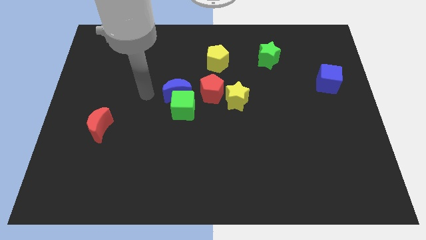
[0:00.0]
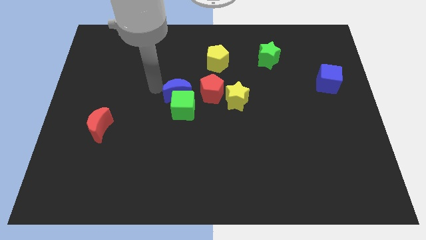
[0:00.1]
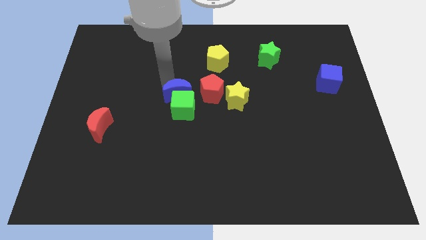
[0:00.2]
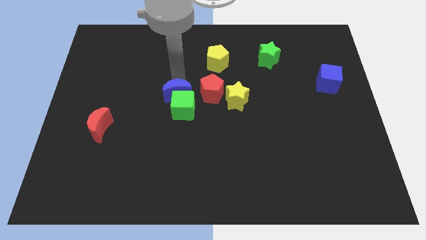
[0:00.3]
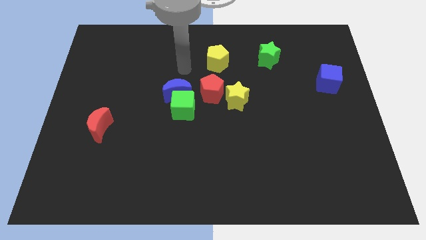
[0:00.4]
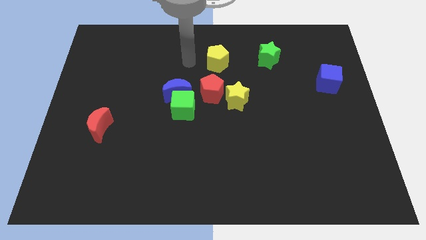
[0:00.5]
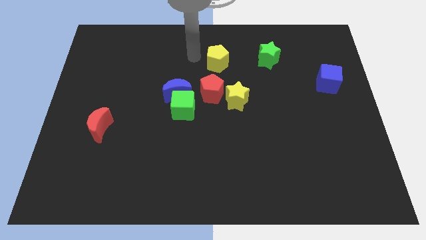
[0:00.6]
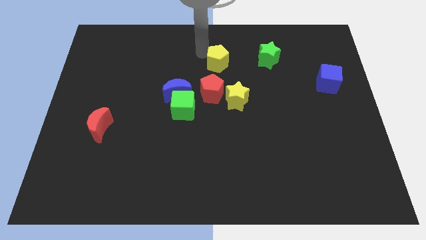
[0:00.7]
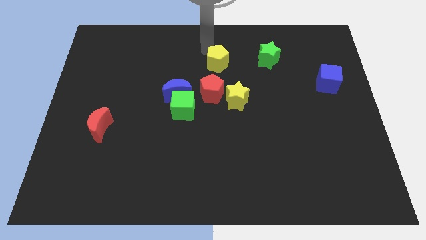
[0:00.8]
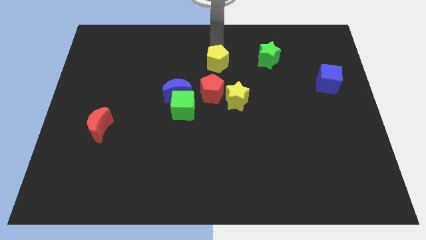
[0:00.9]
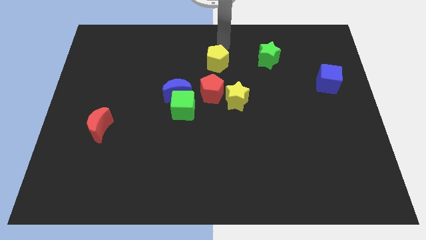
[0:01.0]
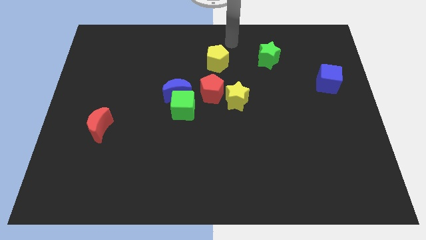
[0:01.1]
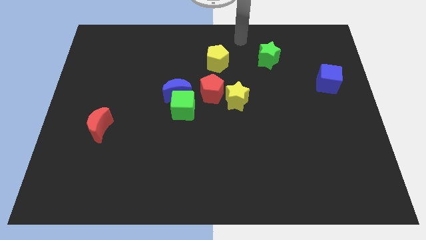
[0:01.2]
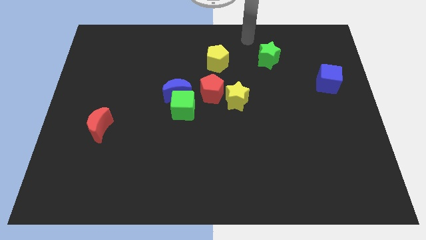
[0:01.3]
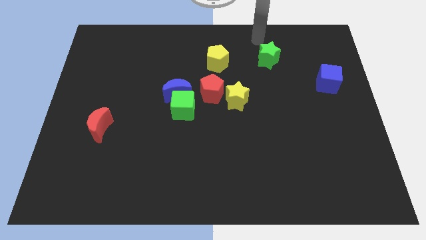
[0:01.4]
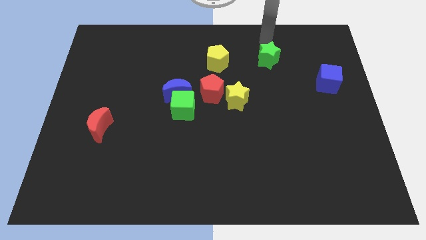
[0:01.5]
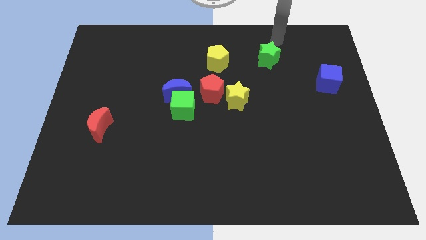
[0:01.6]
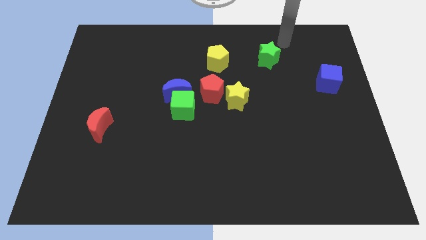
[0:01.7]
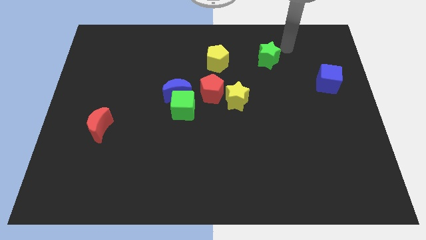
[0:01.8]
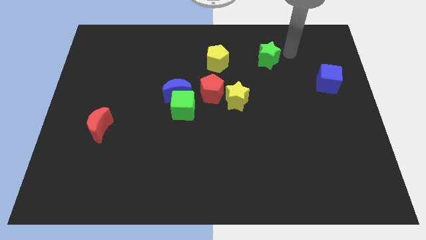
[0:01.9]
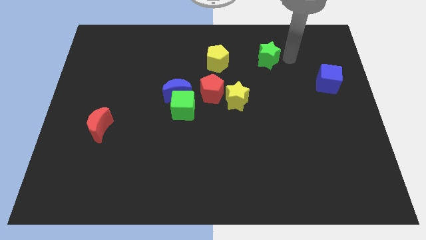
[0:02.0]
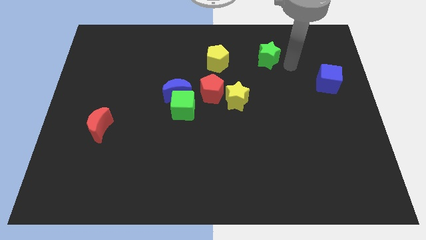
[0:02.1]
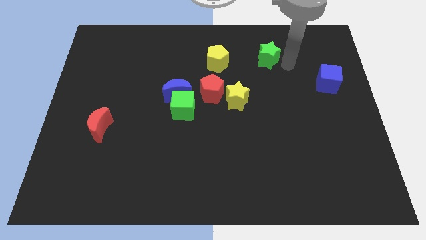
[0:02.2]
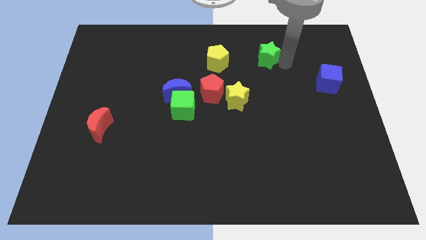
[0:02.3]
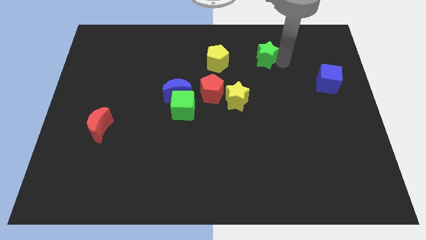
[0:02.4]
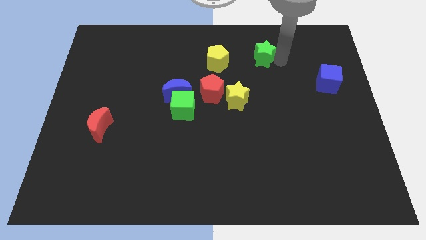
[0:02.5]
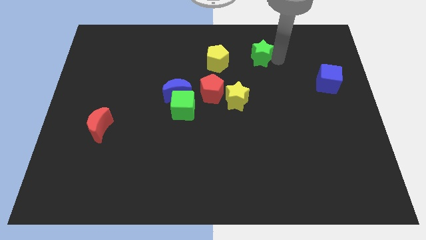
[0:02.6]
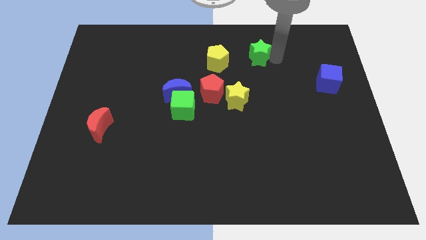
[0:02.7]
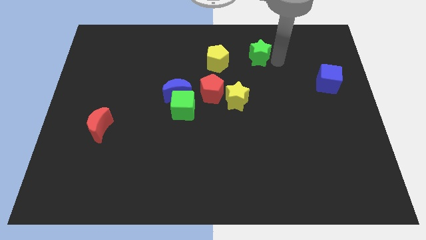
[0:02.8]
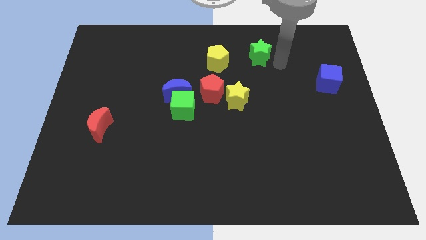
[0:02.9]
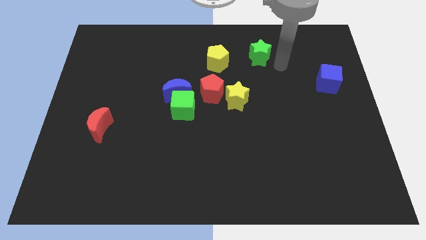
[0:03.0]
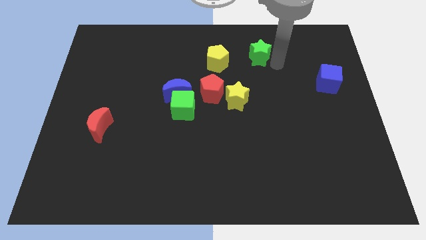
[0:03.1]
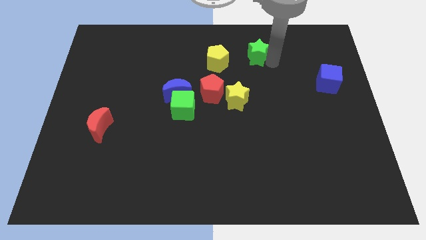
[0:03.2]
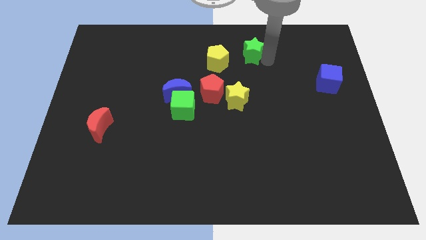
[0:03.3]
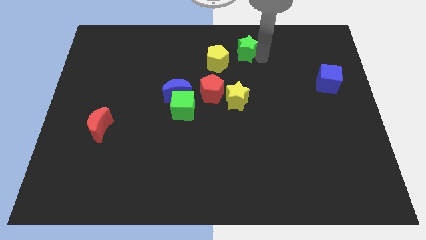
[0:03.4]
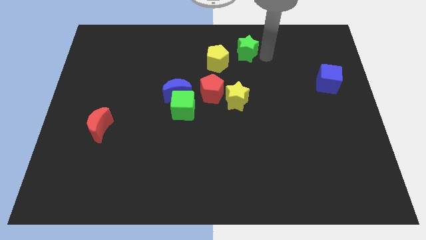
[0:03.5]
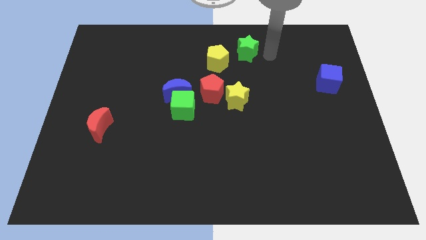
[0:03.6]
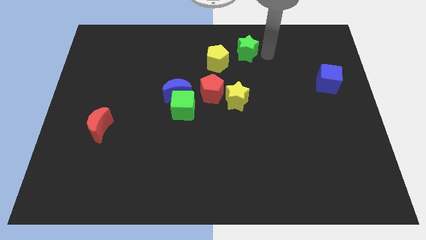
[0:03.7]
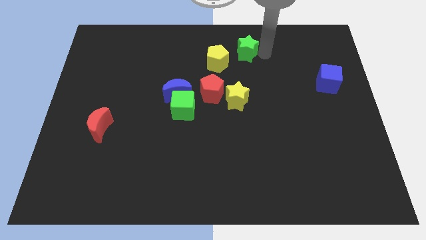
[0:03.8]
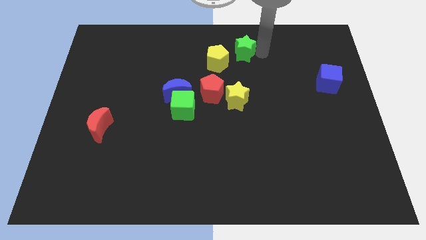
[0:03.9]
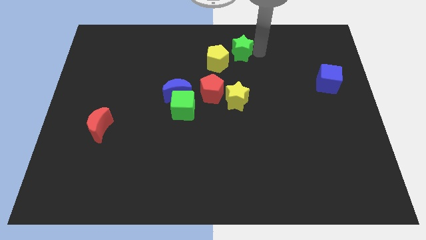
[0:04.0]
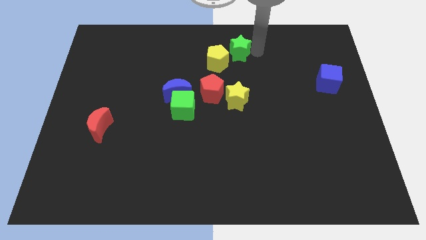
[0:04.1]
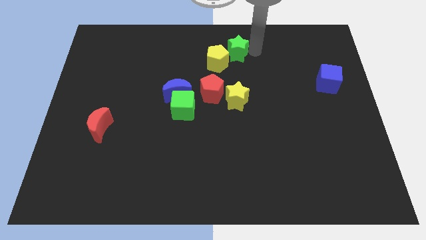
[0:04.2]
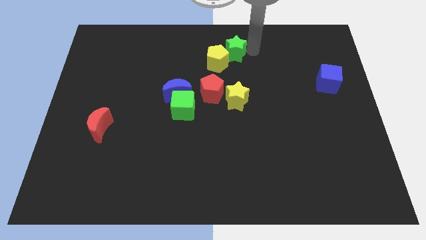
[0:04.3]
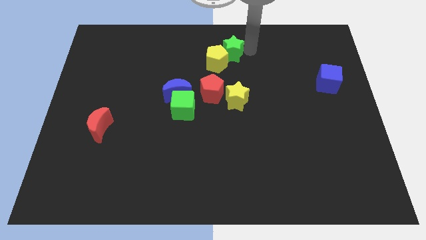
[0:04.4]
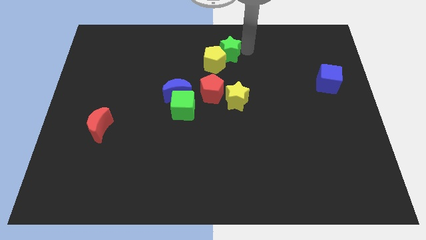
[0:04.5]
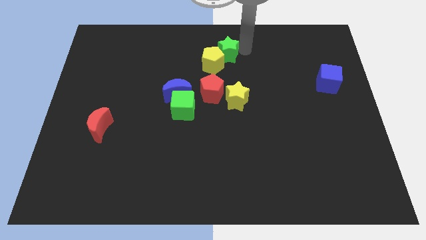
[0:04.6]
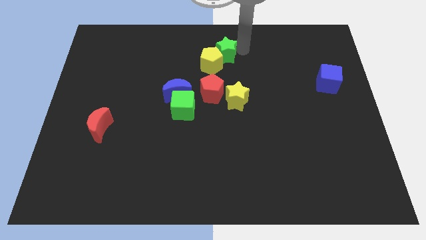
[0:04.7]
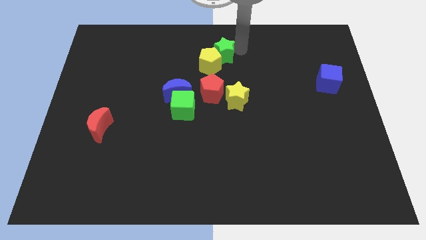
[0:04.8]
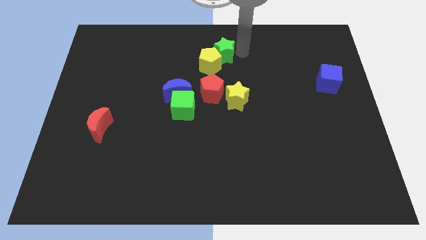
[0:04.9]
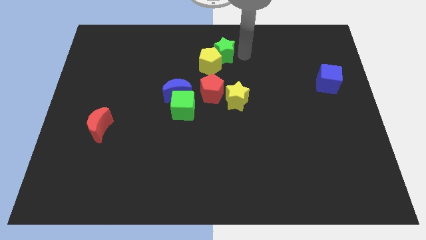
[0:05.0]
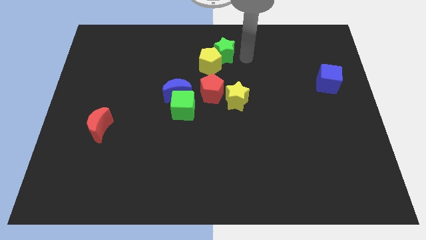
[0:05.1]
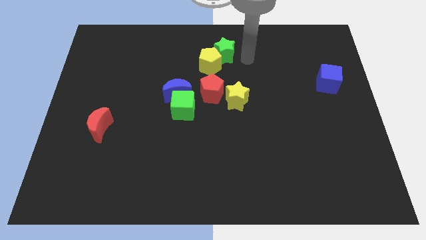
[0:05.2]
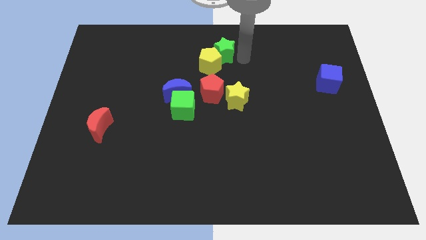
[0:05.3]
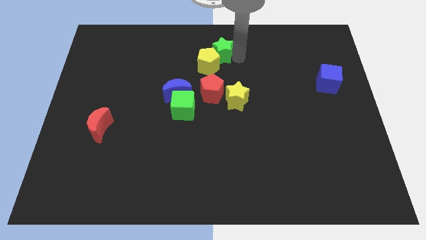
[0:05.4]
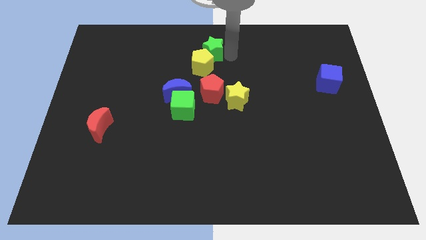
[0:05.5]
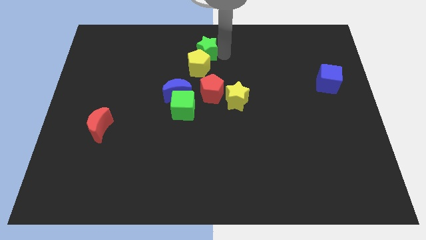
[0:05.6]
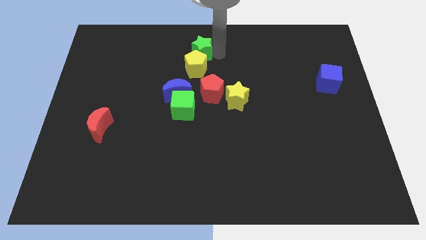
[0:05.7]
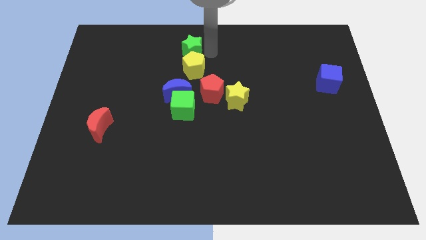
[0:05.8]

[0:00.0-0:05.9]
push the green star left

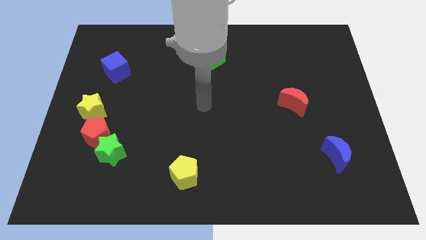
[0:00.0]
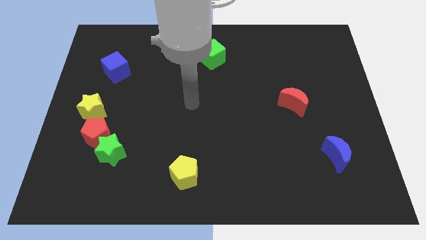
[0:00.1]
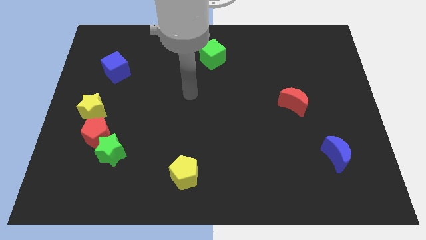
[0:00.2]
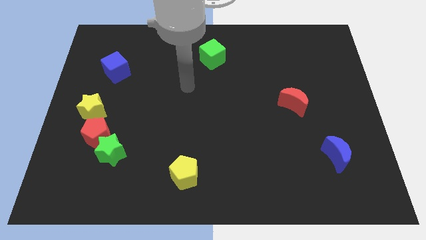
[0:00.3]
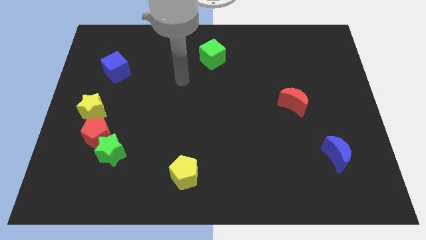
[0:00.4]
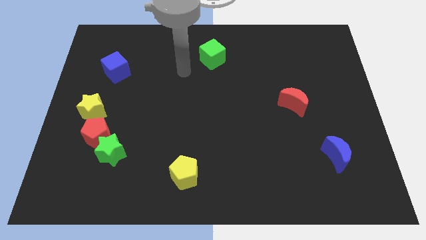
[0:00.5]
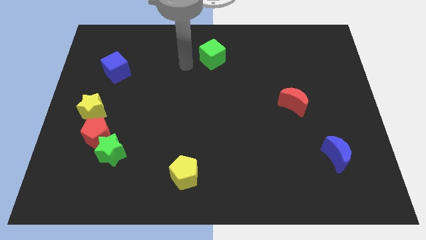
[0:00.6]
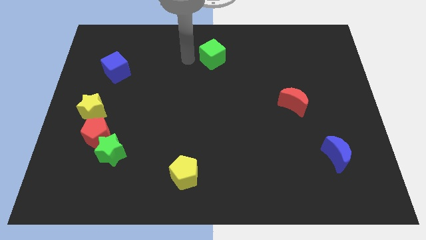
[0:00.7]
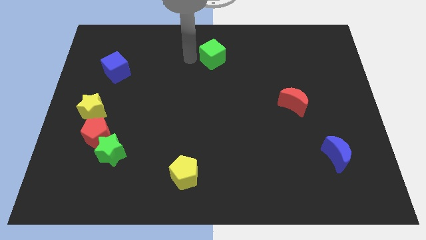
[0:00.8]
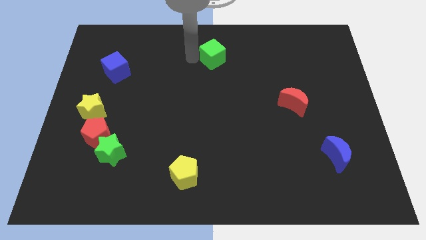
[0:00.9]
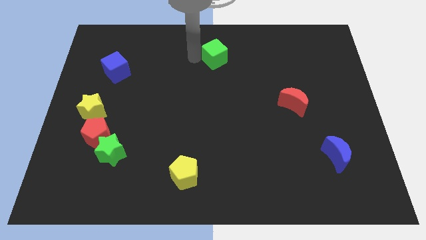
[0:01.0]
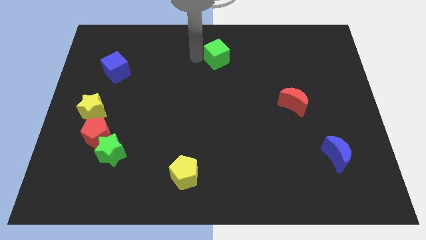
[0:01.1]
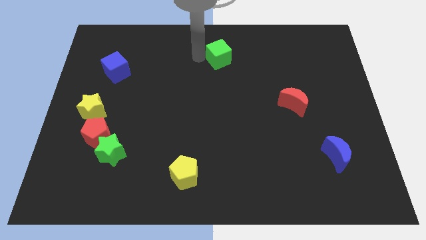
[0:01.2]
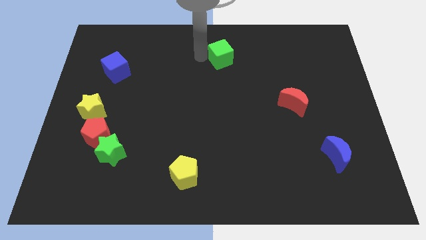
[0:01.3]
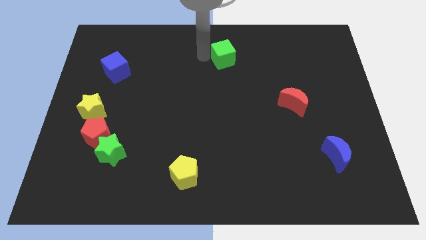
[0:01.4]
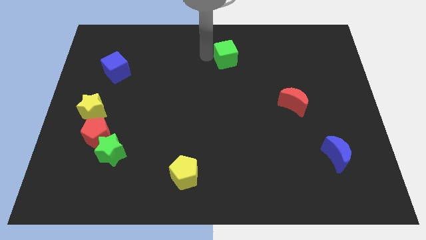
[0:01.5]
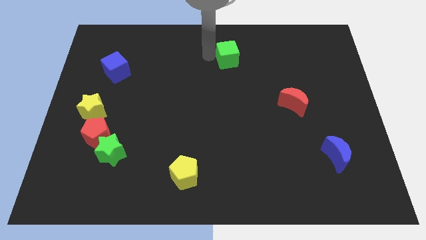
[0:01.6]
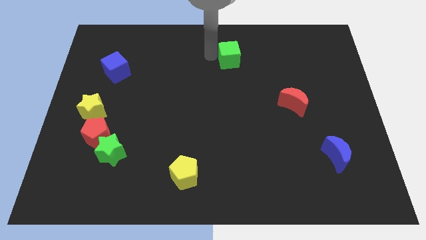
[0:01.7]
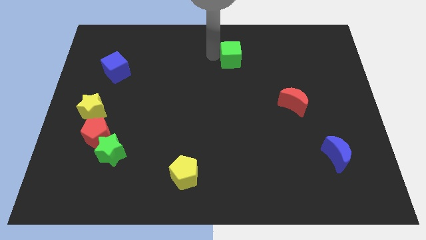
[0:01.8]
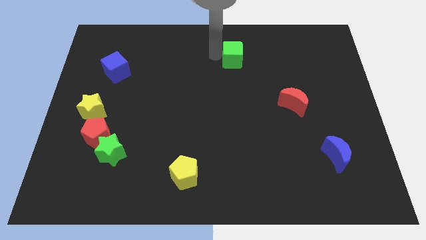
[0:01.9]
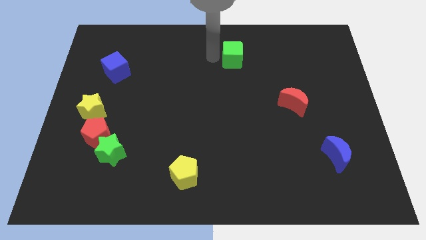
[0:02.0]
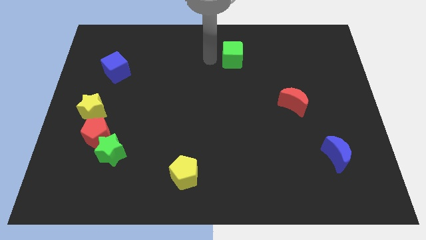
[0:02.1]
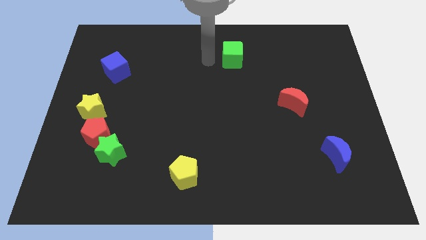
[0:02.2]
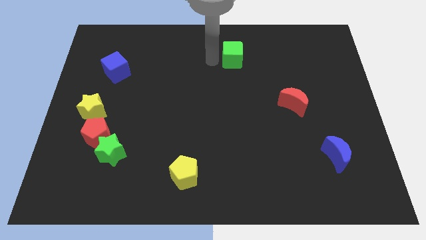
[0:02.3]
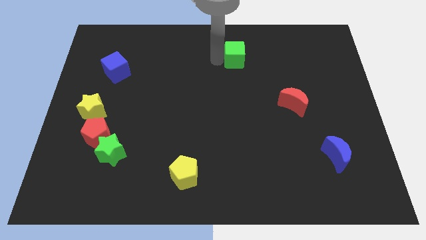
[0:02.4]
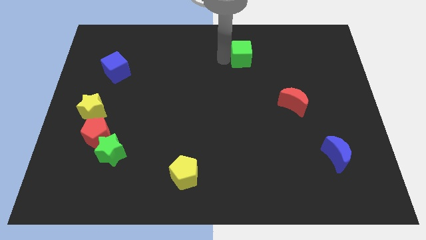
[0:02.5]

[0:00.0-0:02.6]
slightly push the green cube right
